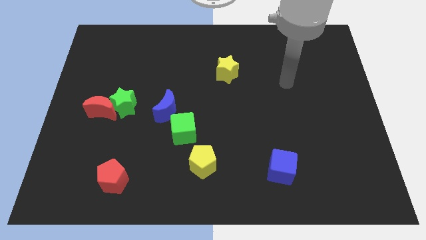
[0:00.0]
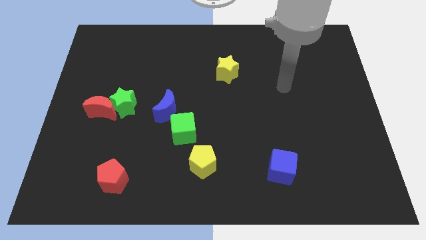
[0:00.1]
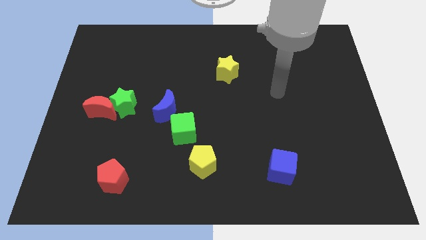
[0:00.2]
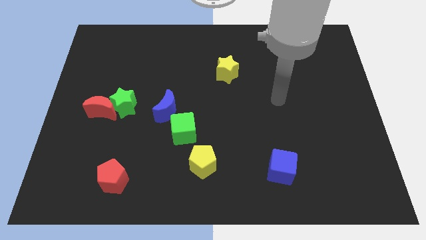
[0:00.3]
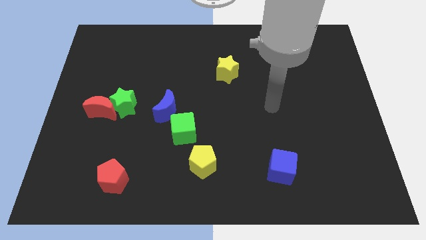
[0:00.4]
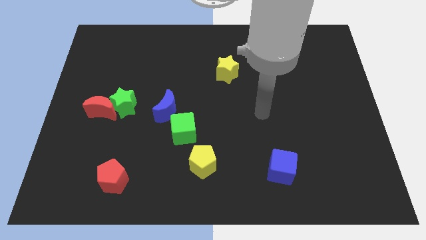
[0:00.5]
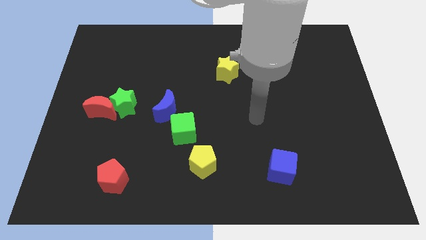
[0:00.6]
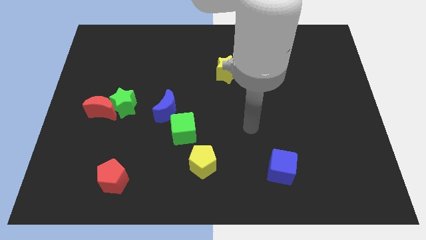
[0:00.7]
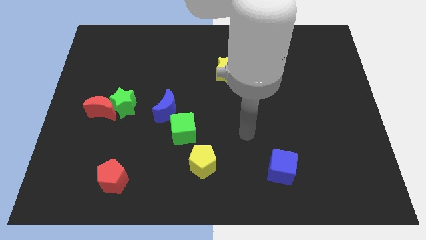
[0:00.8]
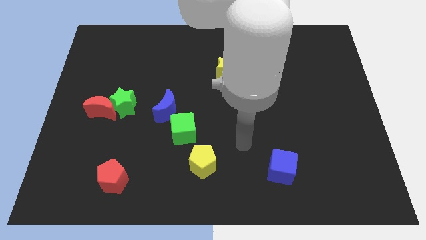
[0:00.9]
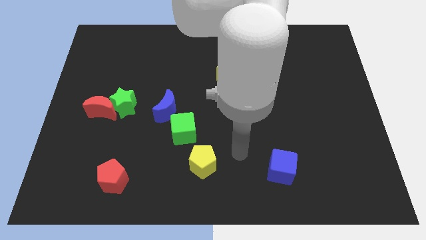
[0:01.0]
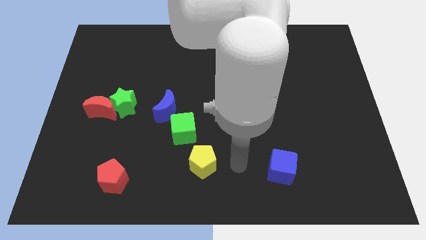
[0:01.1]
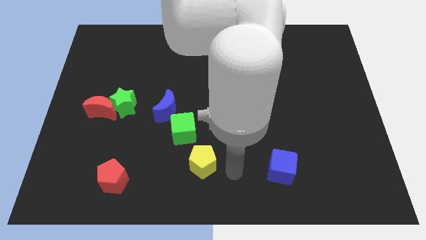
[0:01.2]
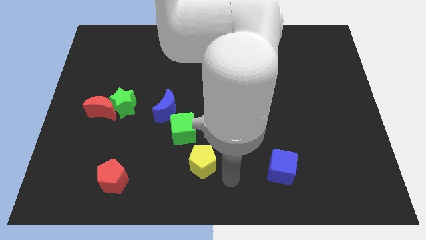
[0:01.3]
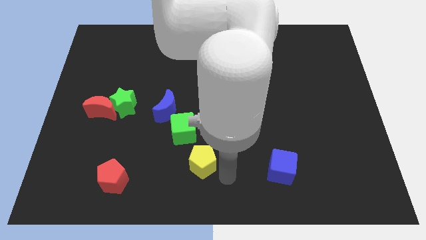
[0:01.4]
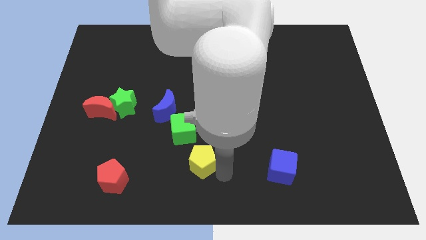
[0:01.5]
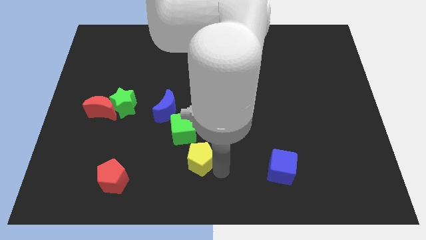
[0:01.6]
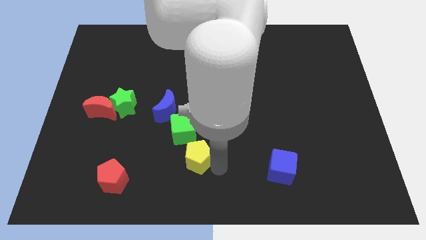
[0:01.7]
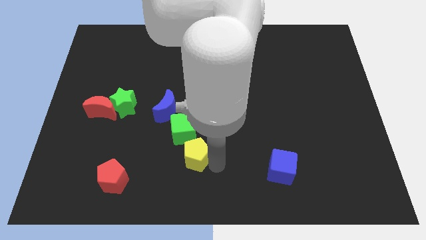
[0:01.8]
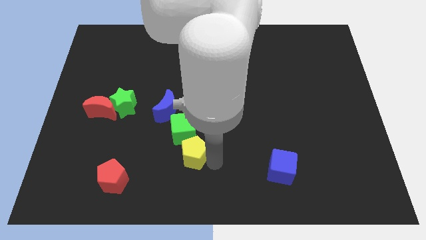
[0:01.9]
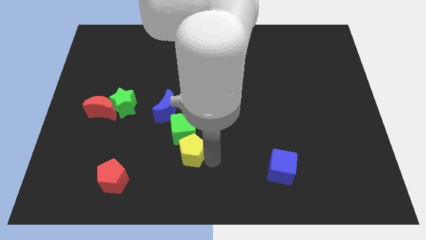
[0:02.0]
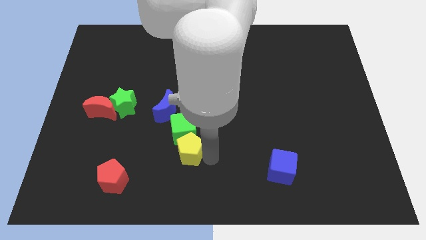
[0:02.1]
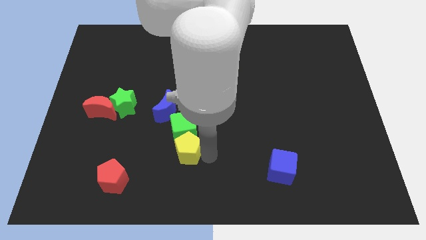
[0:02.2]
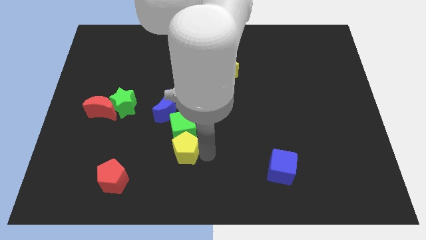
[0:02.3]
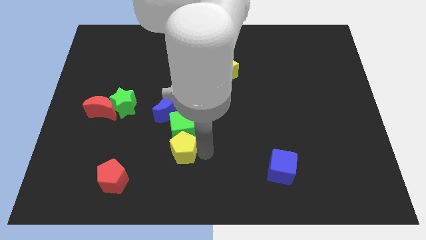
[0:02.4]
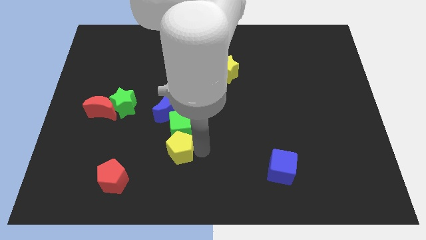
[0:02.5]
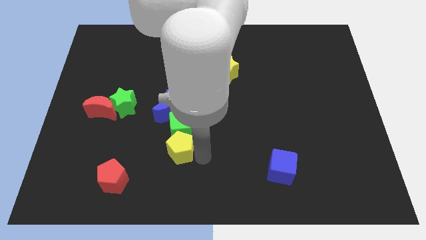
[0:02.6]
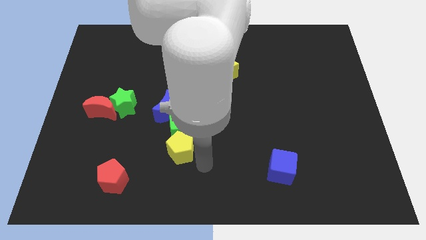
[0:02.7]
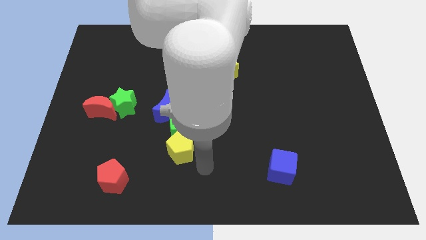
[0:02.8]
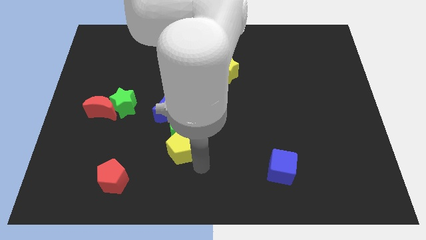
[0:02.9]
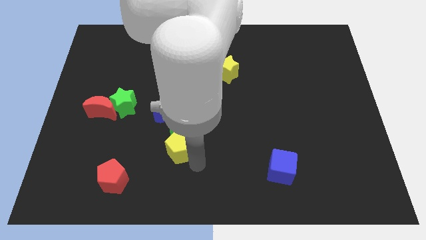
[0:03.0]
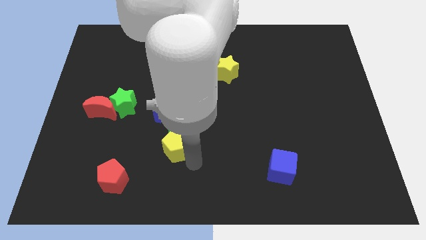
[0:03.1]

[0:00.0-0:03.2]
push the yellow pentagon upwards and then left somewhat

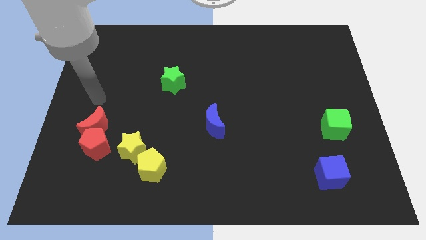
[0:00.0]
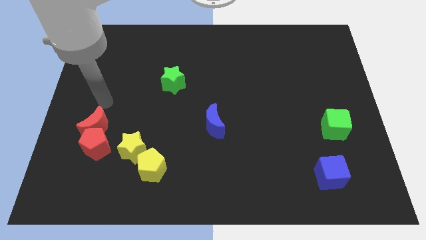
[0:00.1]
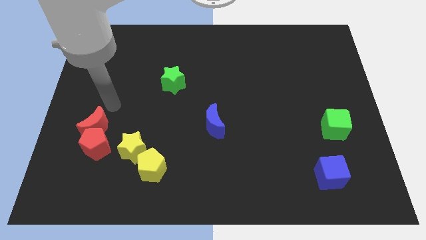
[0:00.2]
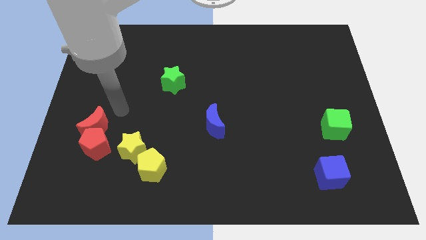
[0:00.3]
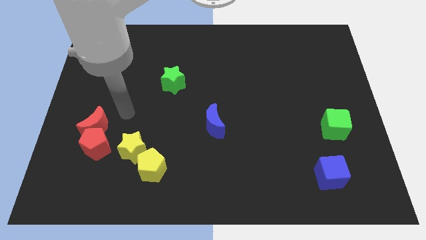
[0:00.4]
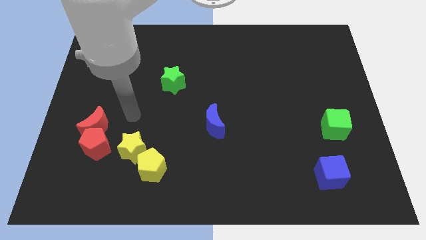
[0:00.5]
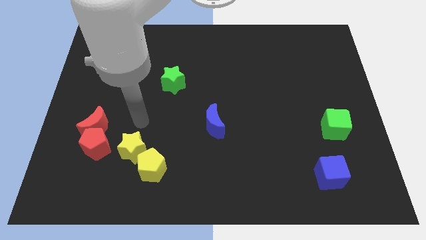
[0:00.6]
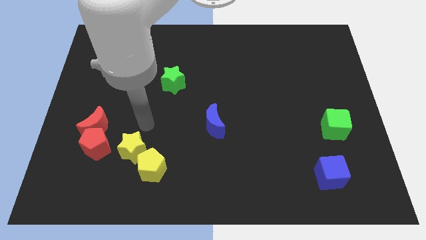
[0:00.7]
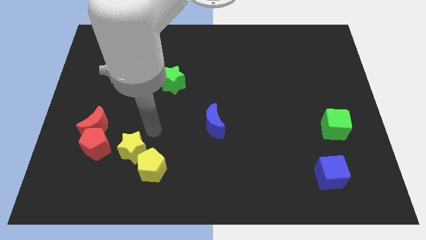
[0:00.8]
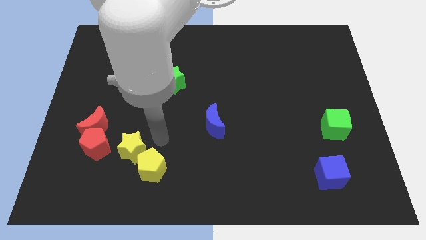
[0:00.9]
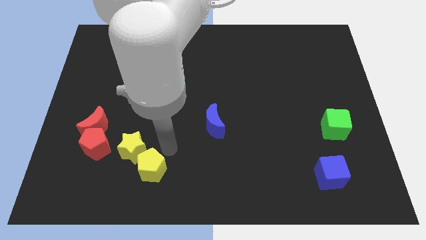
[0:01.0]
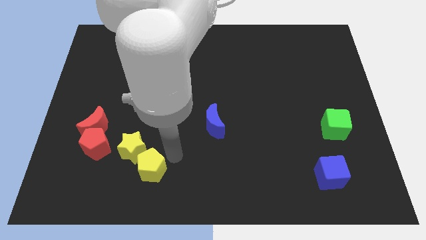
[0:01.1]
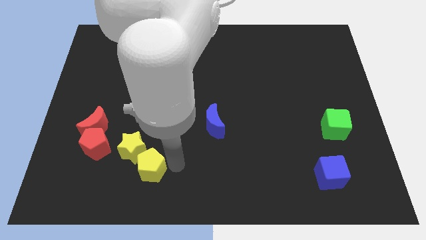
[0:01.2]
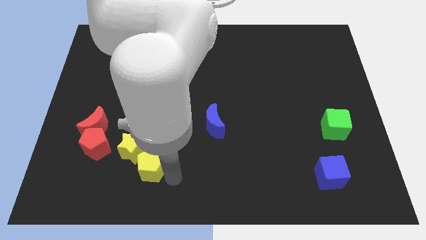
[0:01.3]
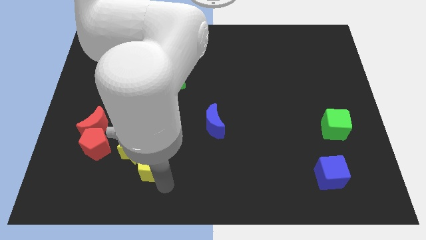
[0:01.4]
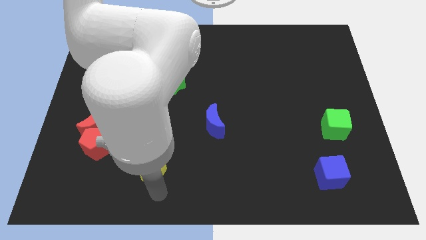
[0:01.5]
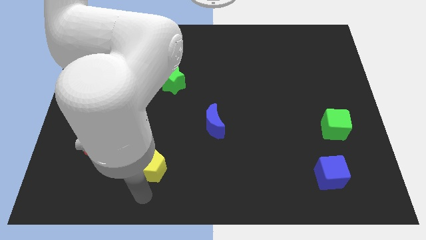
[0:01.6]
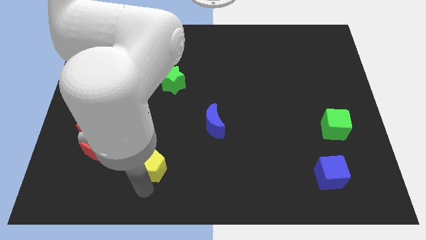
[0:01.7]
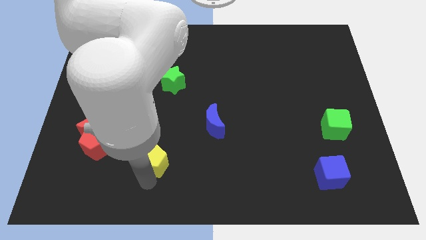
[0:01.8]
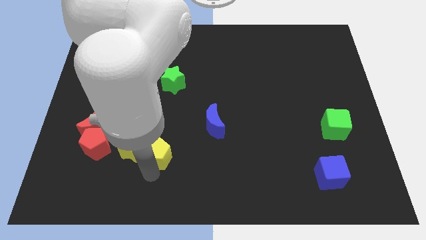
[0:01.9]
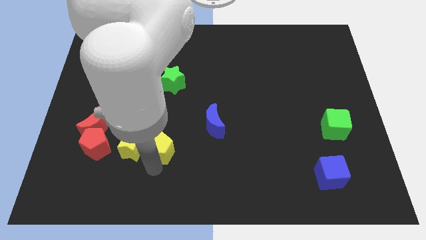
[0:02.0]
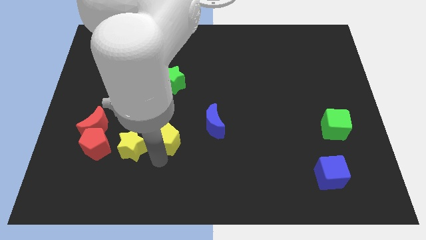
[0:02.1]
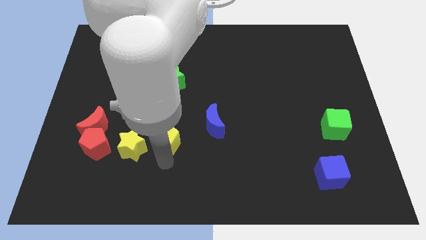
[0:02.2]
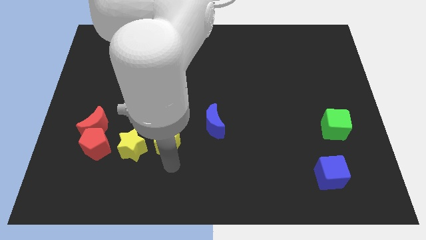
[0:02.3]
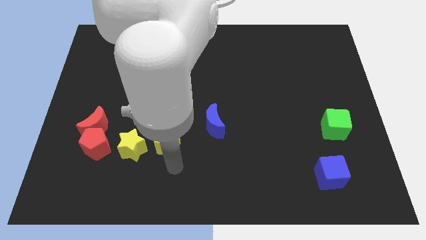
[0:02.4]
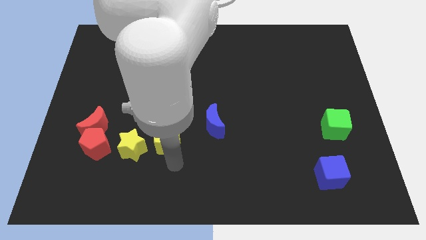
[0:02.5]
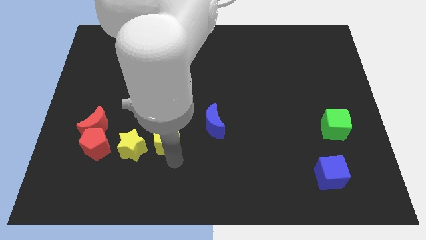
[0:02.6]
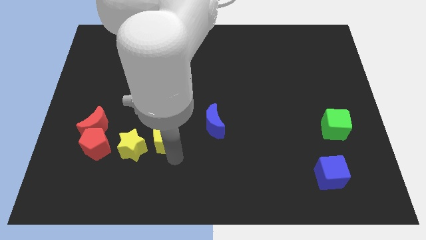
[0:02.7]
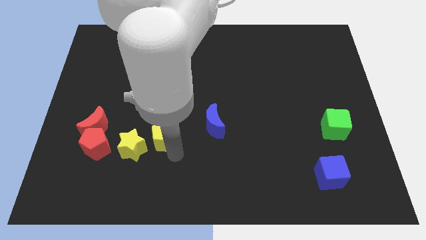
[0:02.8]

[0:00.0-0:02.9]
move the yellow pentagon upwards a bit

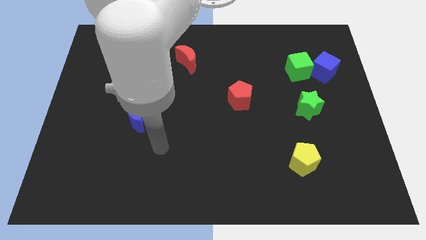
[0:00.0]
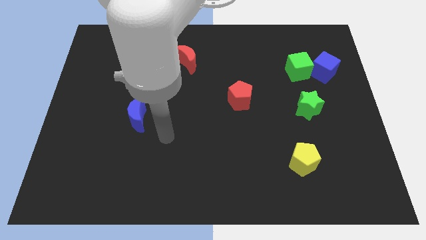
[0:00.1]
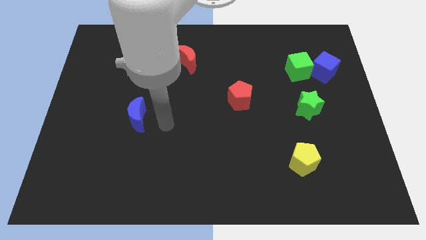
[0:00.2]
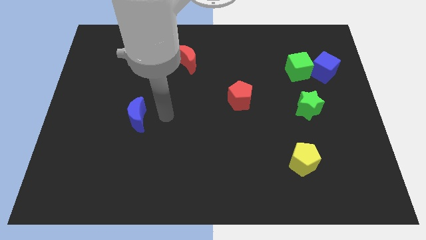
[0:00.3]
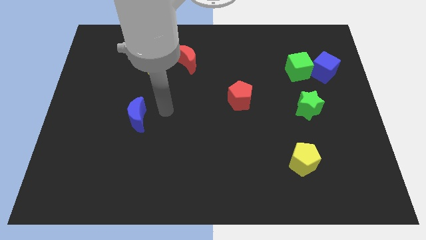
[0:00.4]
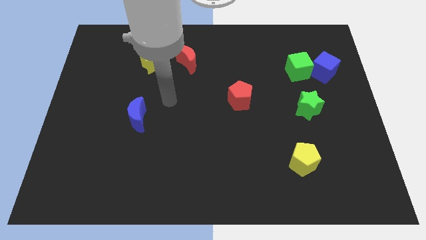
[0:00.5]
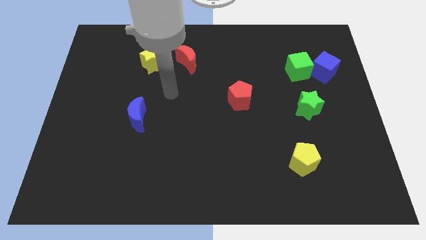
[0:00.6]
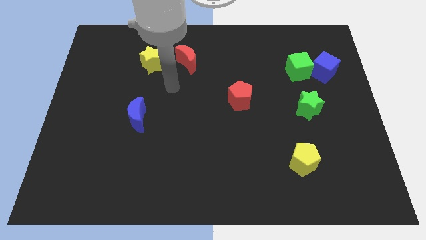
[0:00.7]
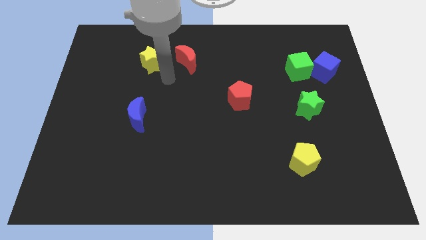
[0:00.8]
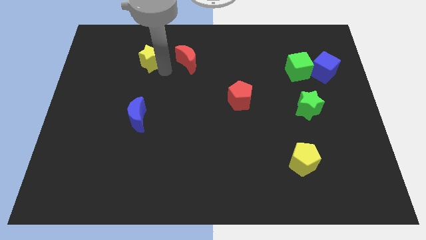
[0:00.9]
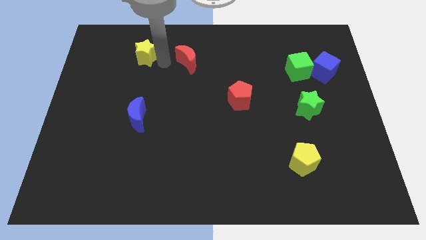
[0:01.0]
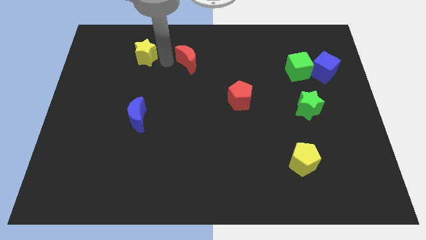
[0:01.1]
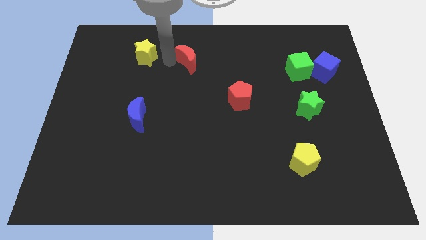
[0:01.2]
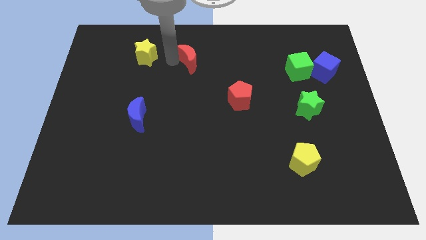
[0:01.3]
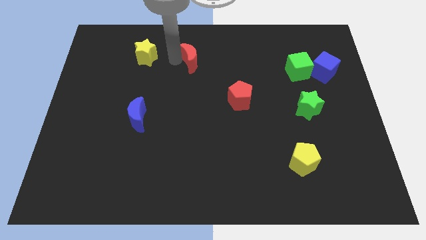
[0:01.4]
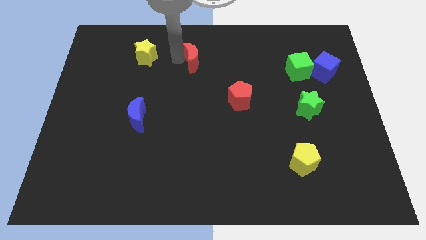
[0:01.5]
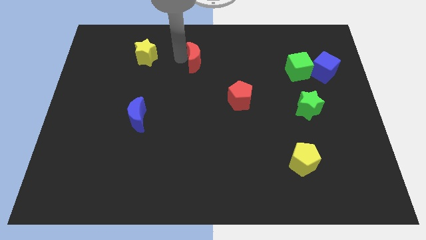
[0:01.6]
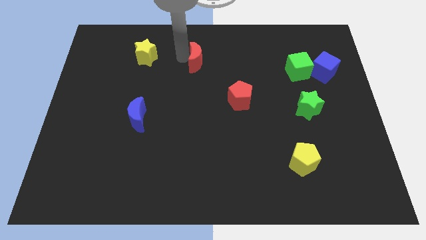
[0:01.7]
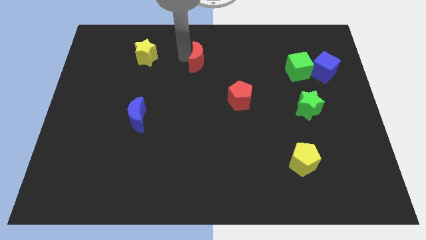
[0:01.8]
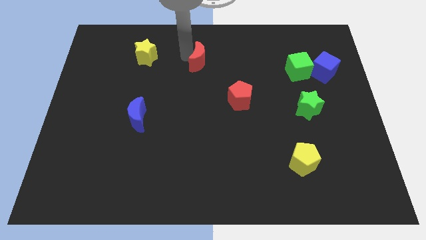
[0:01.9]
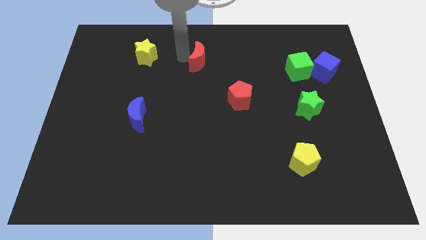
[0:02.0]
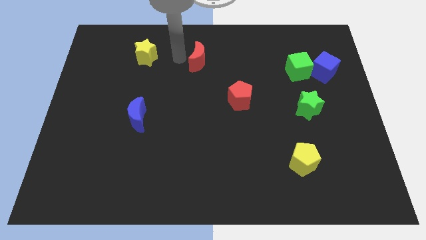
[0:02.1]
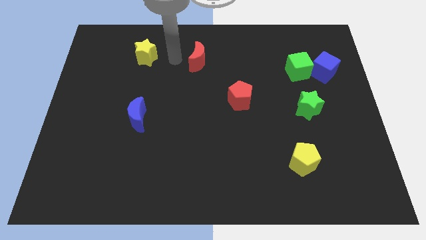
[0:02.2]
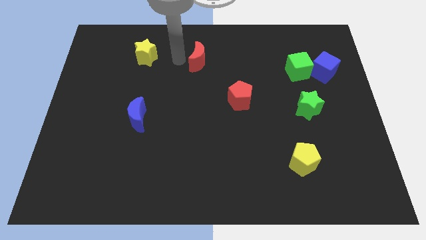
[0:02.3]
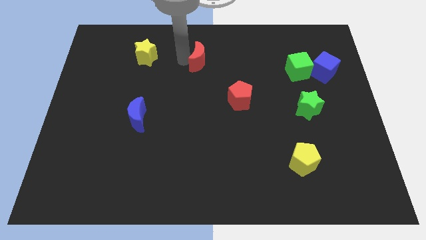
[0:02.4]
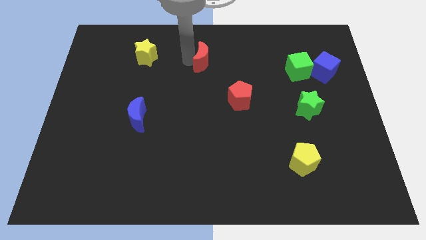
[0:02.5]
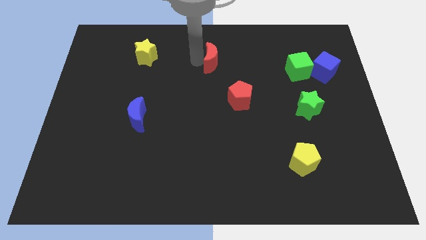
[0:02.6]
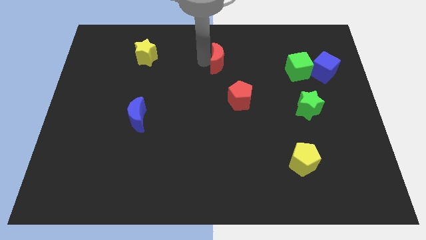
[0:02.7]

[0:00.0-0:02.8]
push the red moon a bit right
